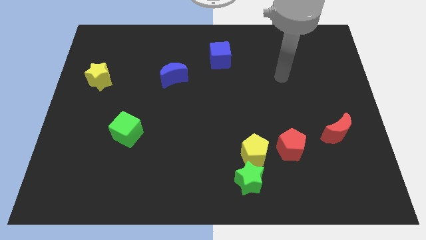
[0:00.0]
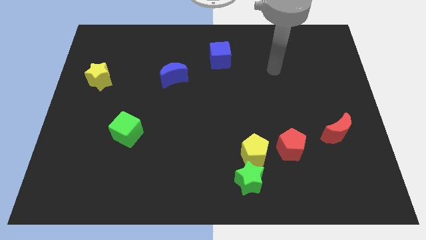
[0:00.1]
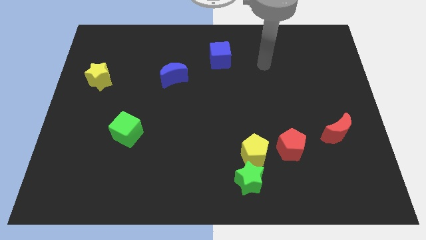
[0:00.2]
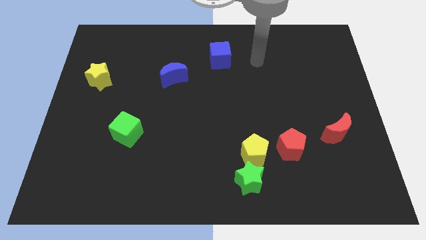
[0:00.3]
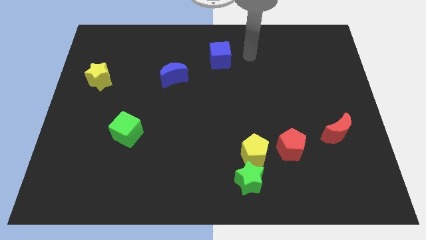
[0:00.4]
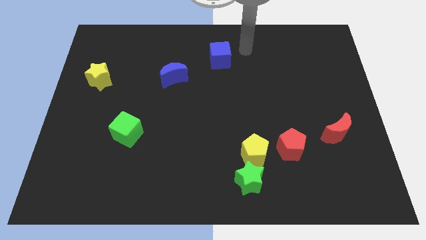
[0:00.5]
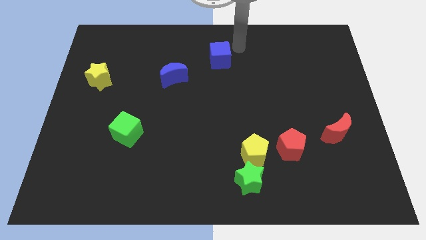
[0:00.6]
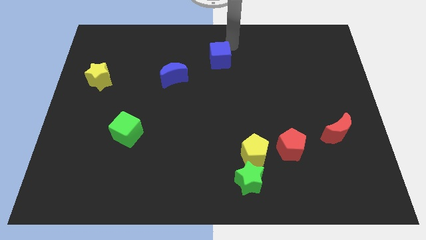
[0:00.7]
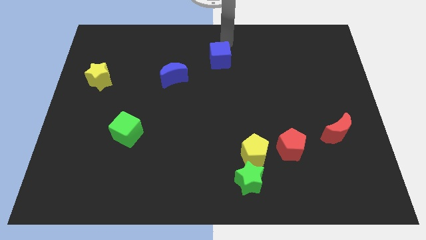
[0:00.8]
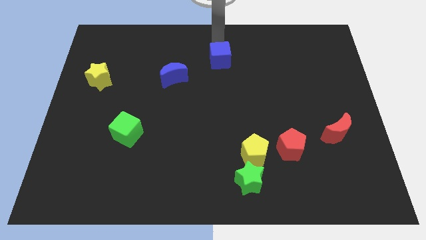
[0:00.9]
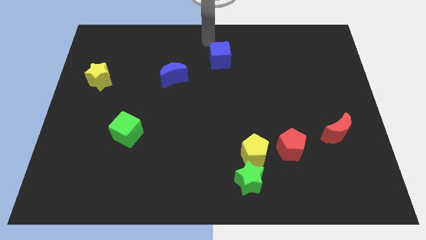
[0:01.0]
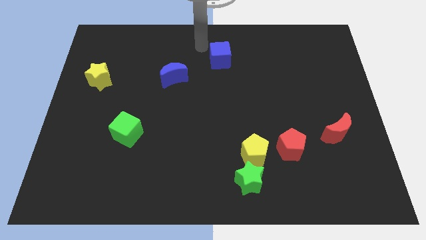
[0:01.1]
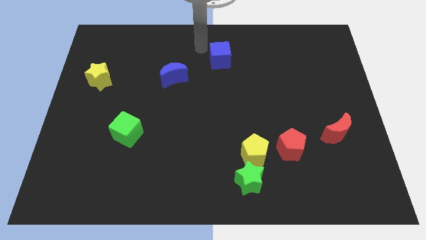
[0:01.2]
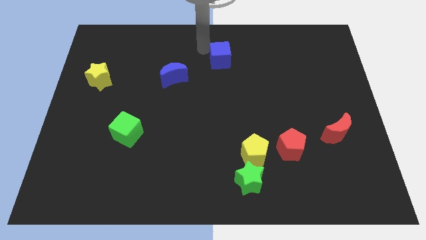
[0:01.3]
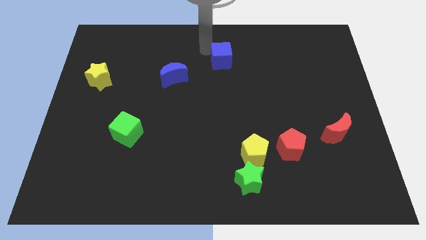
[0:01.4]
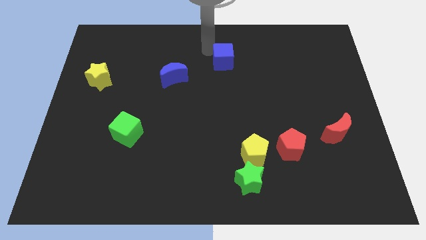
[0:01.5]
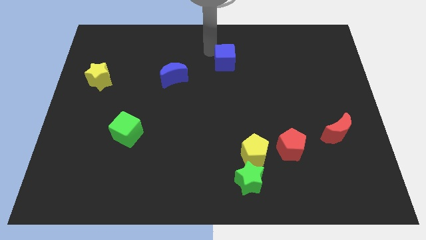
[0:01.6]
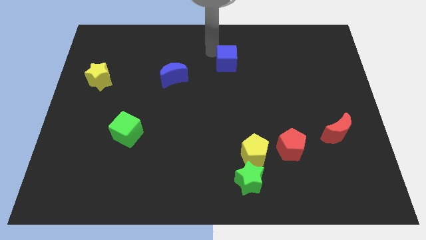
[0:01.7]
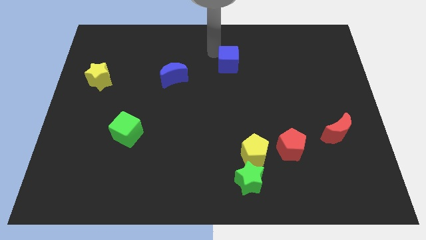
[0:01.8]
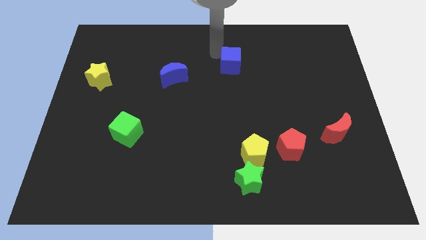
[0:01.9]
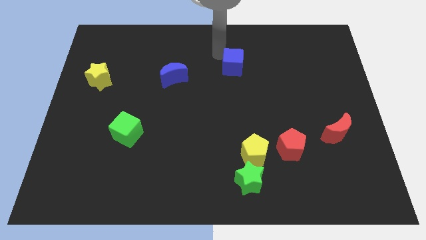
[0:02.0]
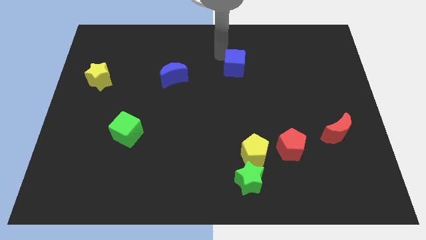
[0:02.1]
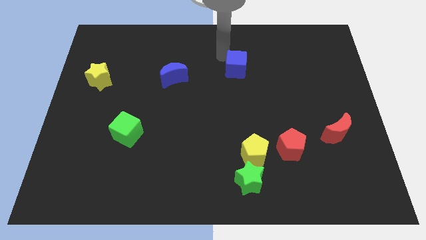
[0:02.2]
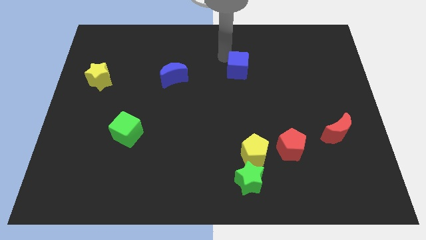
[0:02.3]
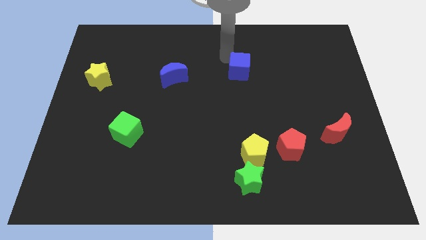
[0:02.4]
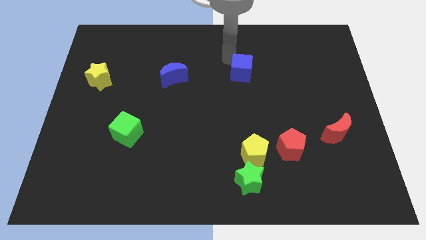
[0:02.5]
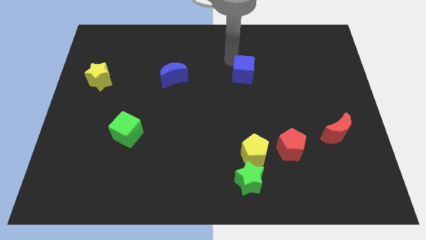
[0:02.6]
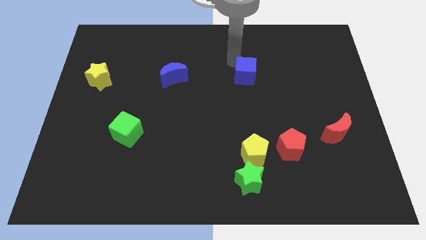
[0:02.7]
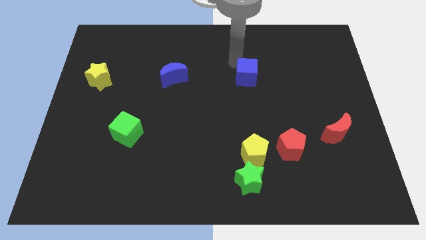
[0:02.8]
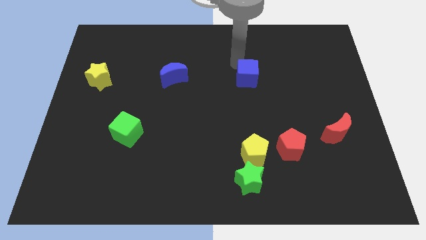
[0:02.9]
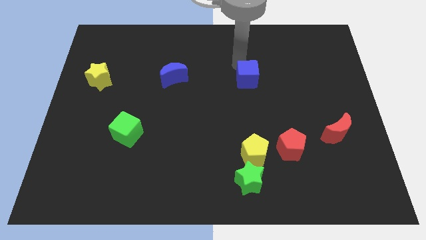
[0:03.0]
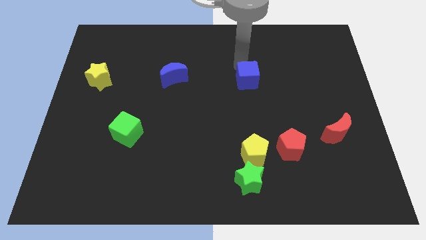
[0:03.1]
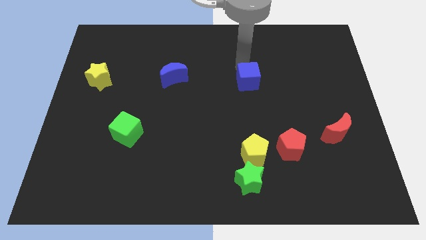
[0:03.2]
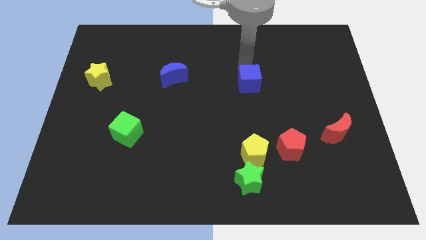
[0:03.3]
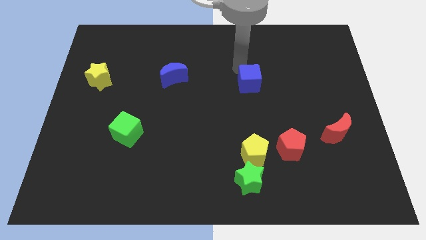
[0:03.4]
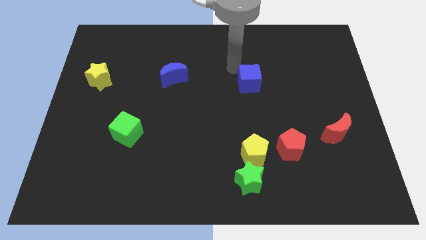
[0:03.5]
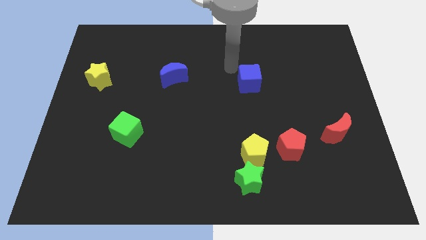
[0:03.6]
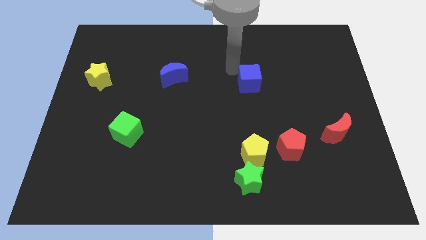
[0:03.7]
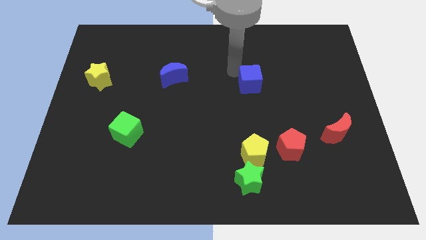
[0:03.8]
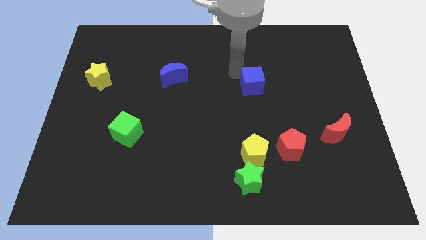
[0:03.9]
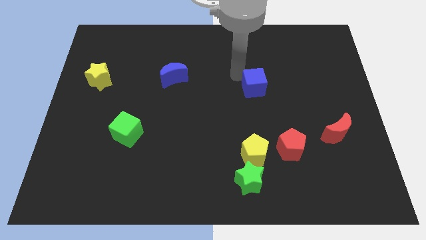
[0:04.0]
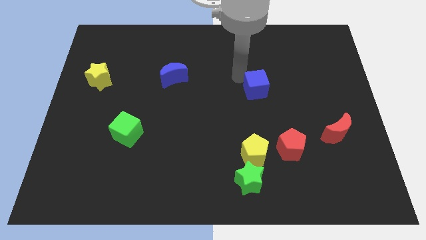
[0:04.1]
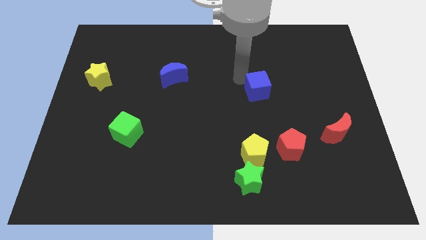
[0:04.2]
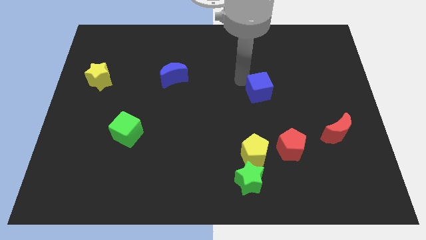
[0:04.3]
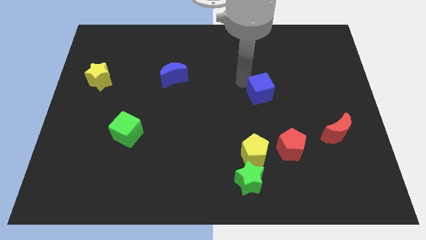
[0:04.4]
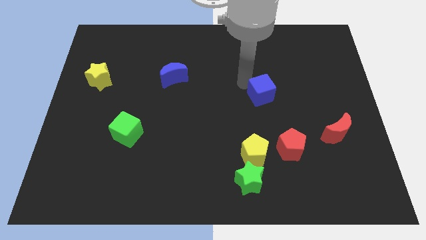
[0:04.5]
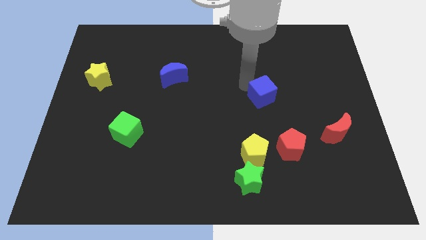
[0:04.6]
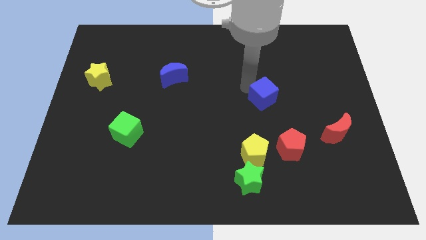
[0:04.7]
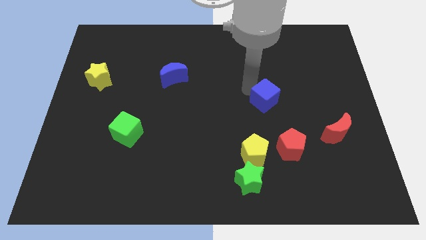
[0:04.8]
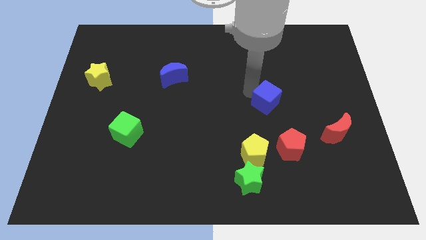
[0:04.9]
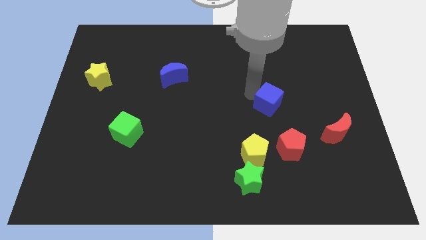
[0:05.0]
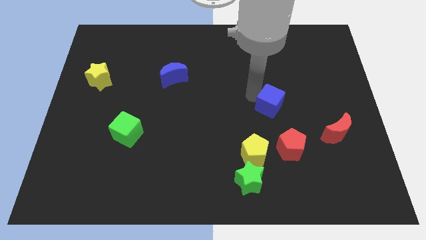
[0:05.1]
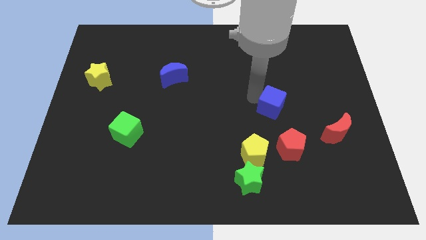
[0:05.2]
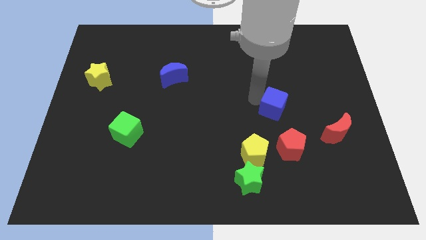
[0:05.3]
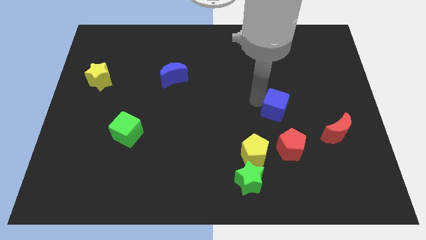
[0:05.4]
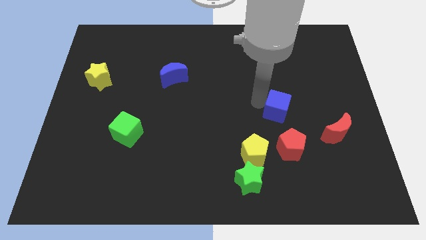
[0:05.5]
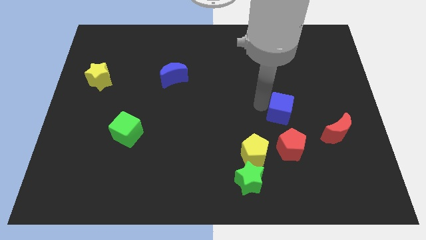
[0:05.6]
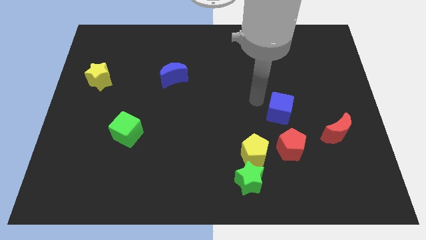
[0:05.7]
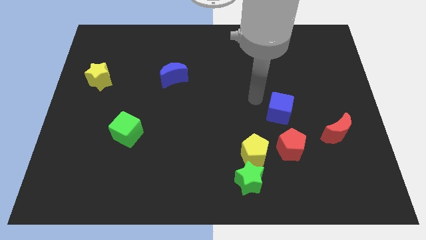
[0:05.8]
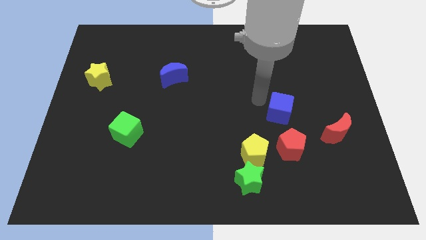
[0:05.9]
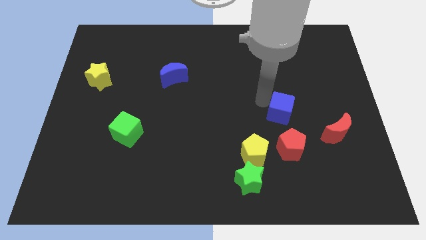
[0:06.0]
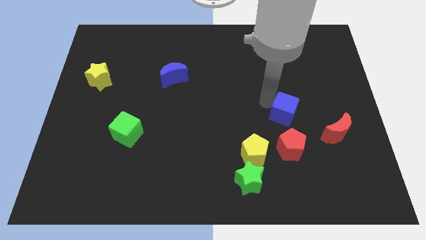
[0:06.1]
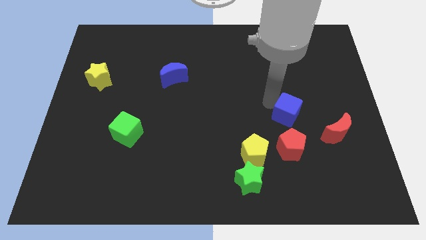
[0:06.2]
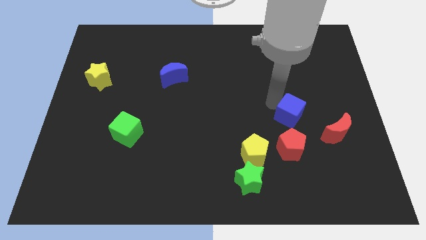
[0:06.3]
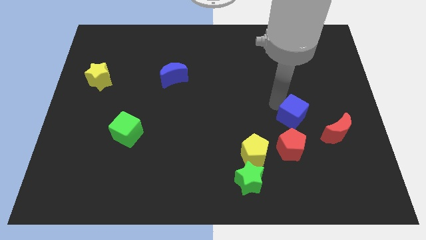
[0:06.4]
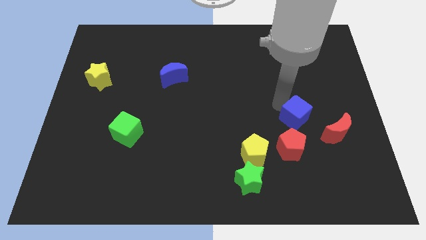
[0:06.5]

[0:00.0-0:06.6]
slide the blue cube to the top right of the red pentagon

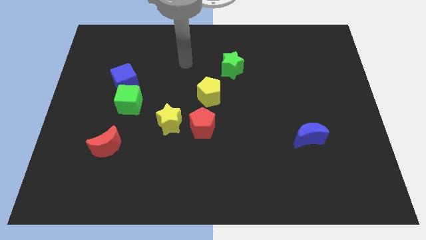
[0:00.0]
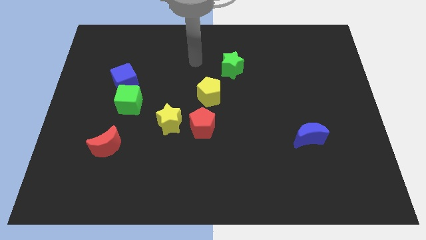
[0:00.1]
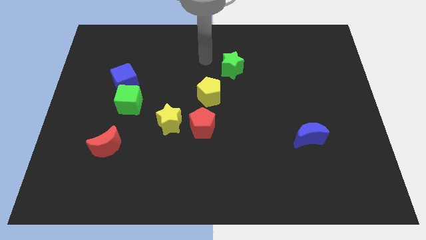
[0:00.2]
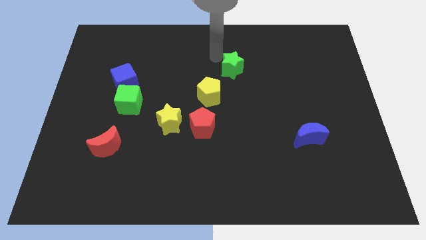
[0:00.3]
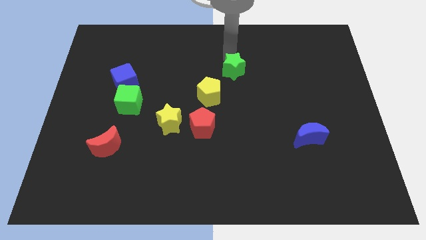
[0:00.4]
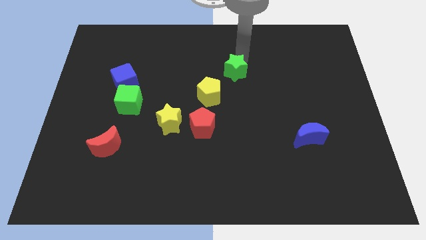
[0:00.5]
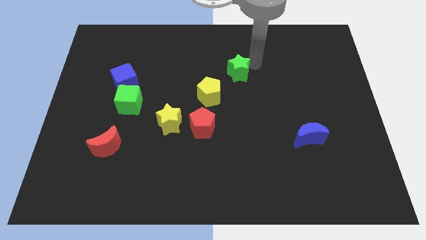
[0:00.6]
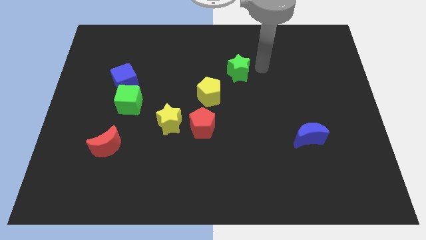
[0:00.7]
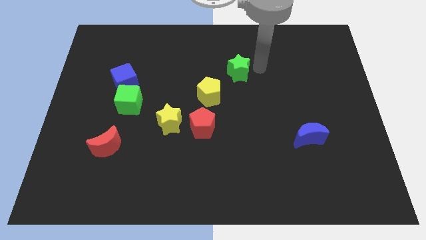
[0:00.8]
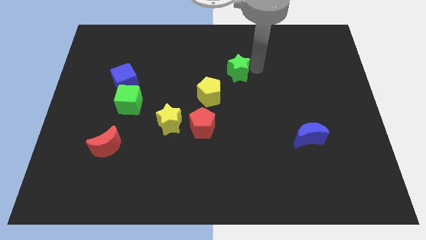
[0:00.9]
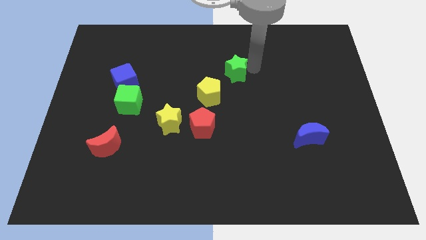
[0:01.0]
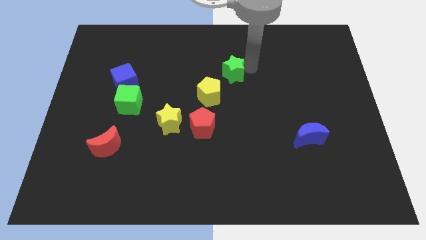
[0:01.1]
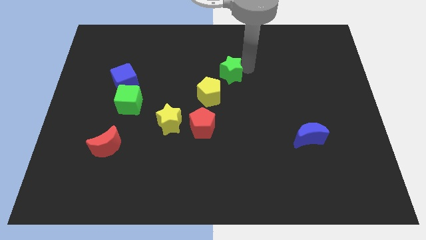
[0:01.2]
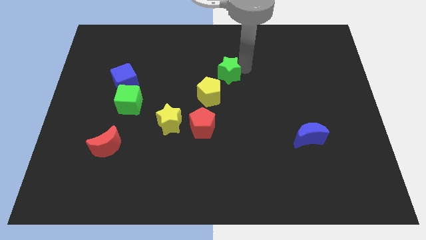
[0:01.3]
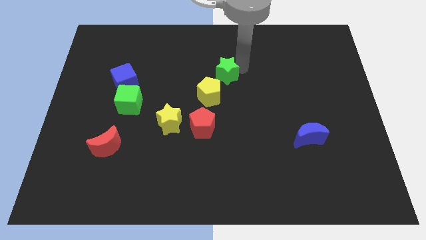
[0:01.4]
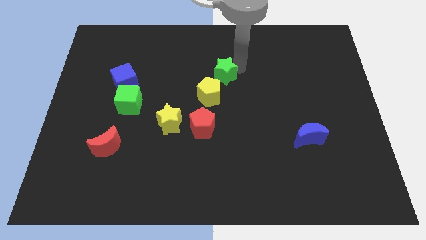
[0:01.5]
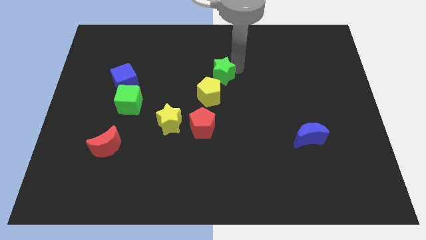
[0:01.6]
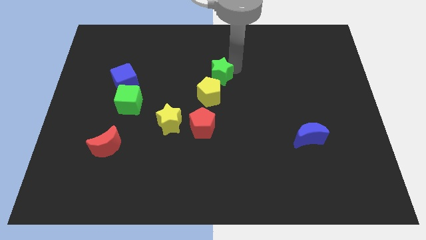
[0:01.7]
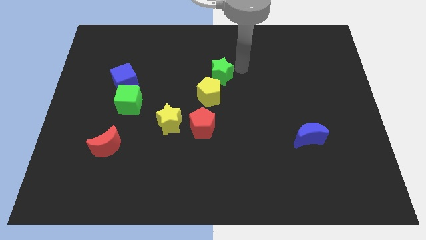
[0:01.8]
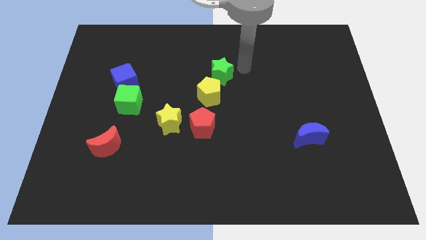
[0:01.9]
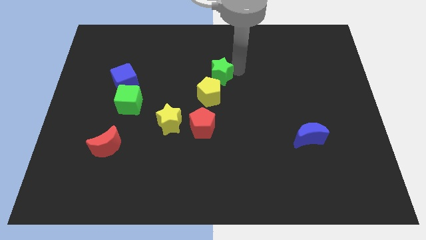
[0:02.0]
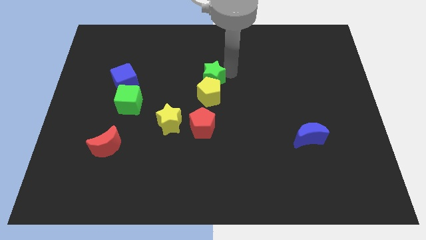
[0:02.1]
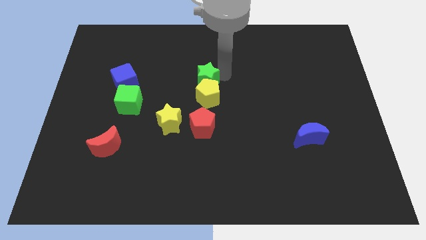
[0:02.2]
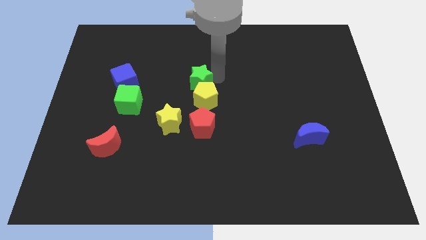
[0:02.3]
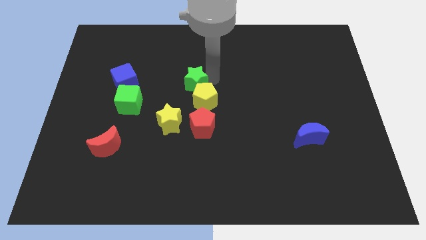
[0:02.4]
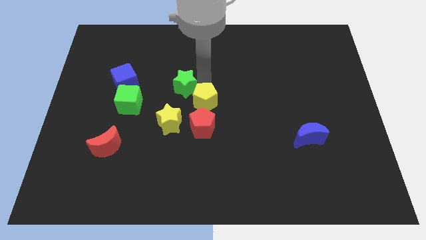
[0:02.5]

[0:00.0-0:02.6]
push the green star to the left of the yellow pentagon
